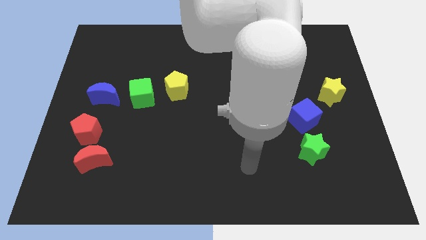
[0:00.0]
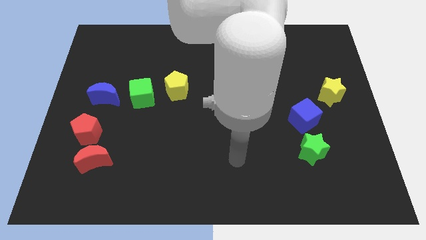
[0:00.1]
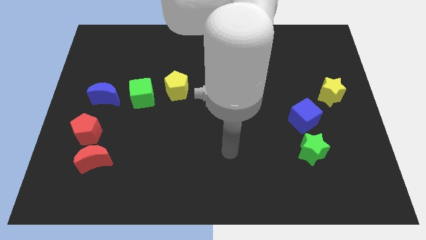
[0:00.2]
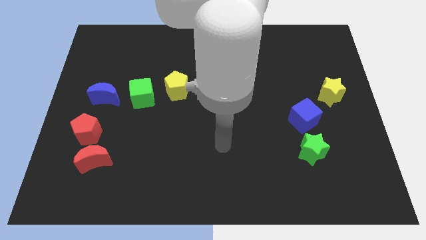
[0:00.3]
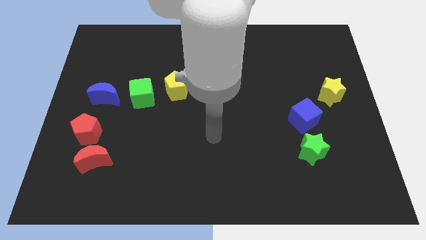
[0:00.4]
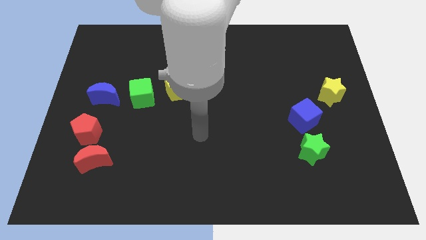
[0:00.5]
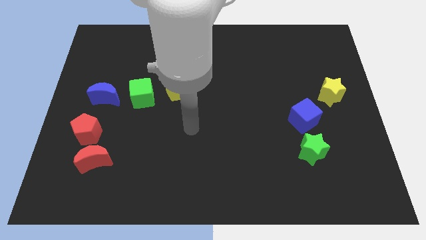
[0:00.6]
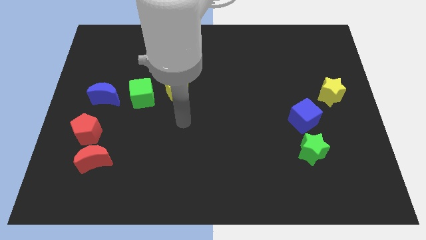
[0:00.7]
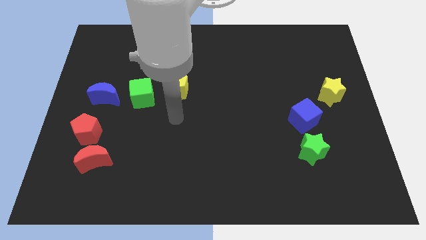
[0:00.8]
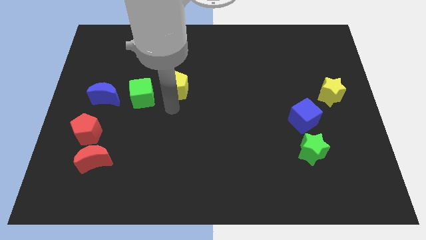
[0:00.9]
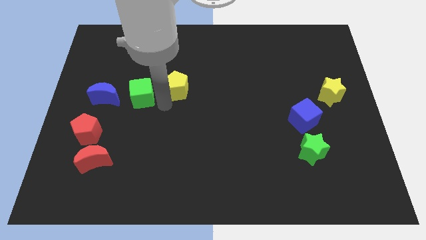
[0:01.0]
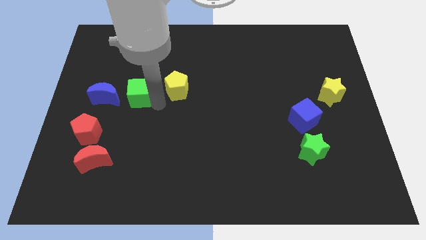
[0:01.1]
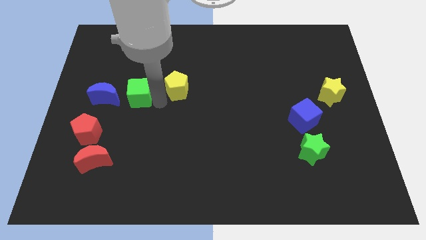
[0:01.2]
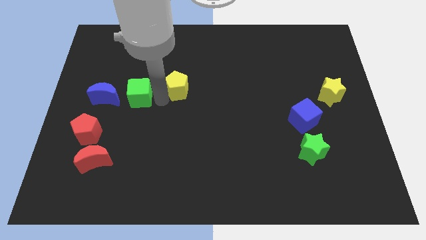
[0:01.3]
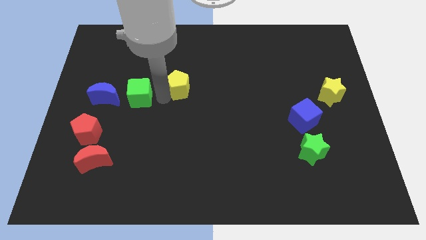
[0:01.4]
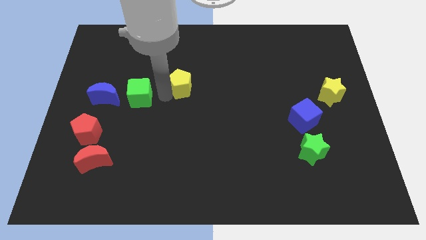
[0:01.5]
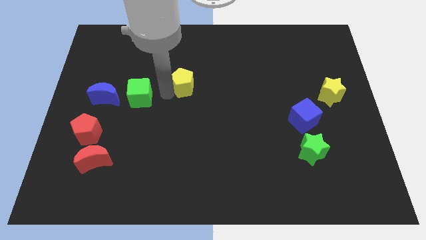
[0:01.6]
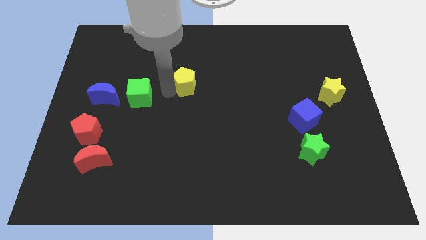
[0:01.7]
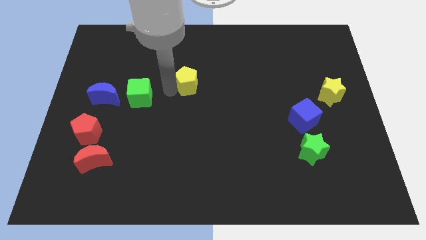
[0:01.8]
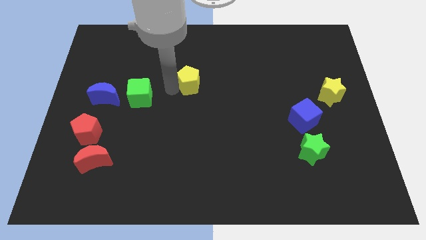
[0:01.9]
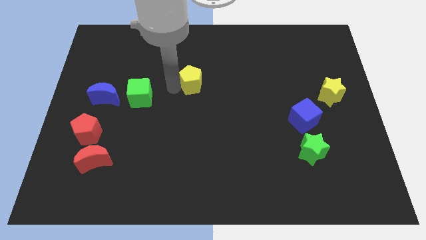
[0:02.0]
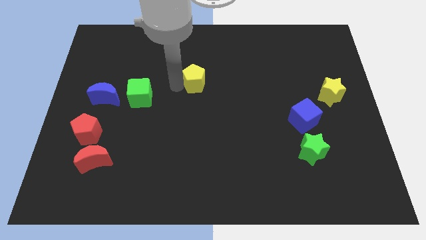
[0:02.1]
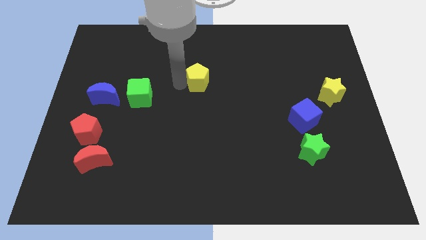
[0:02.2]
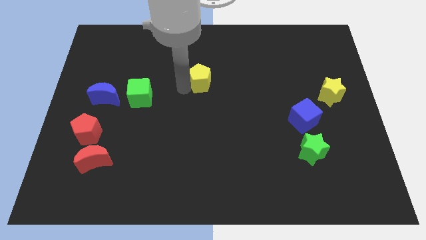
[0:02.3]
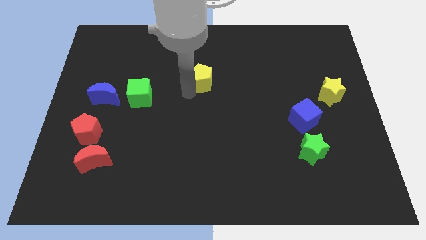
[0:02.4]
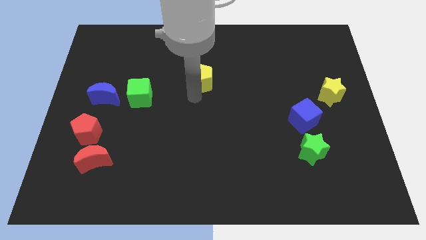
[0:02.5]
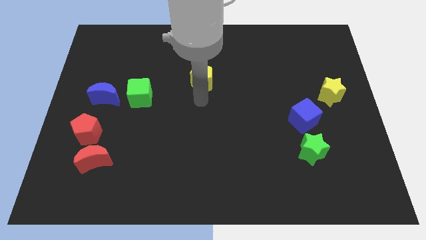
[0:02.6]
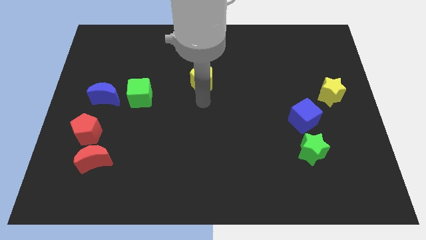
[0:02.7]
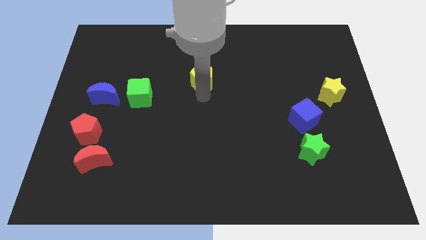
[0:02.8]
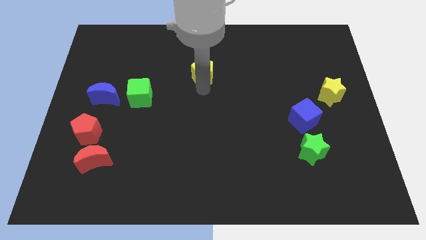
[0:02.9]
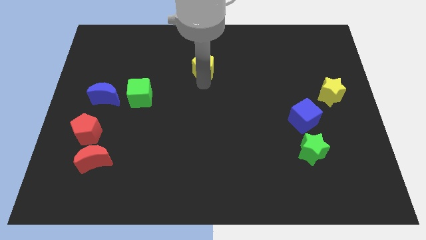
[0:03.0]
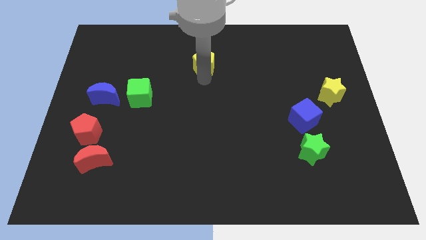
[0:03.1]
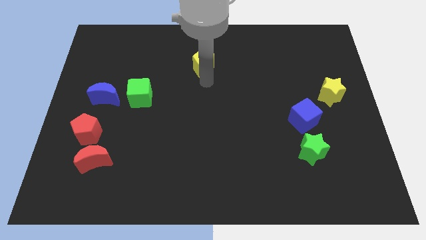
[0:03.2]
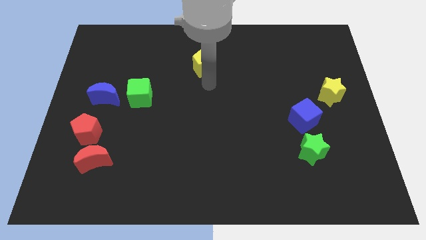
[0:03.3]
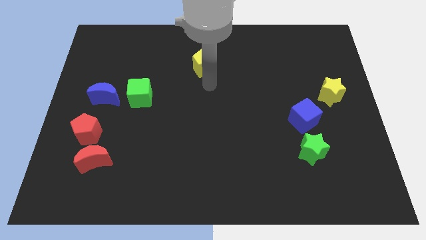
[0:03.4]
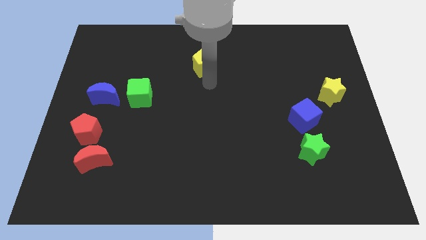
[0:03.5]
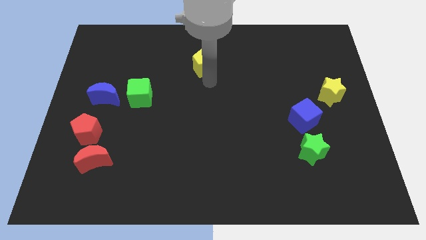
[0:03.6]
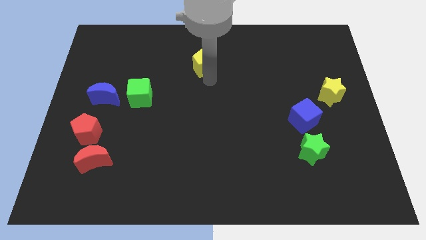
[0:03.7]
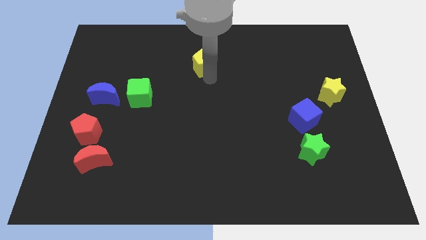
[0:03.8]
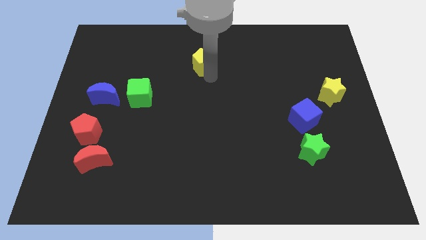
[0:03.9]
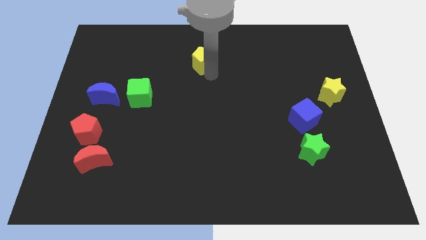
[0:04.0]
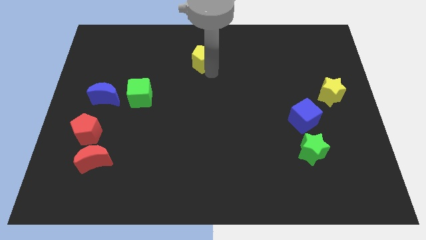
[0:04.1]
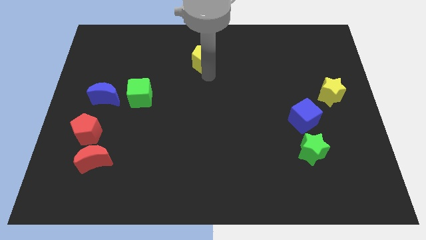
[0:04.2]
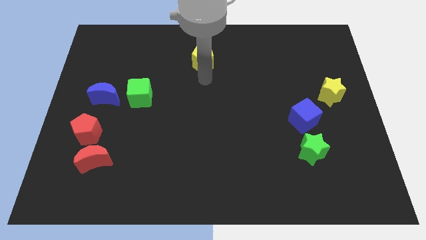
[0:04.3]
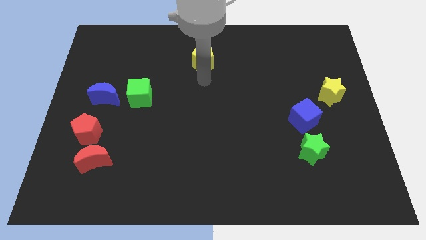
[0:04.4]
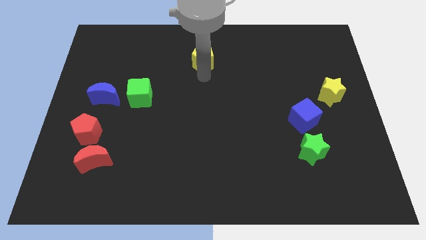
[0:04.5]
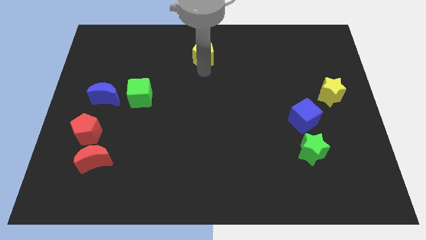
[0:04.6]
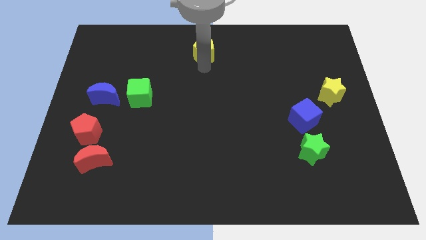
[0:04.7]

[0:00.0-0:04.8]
put the yellow pentagon to the top side

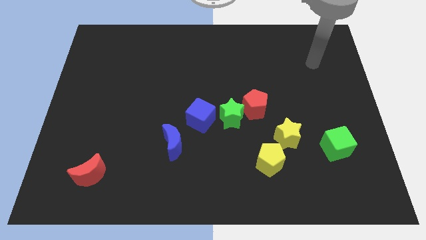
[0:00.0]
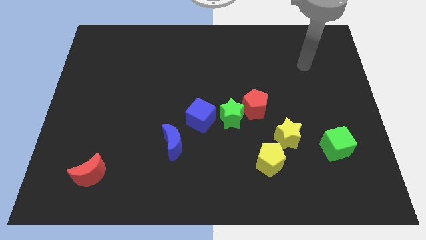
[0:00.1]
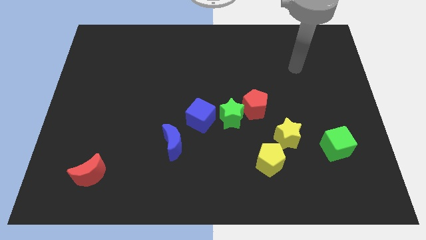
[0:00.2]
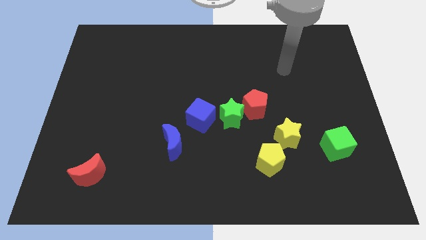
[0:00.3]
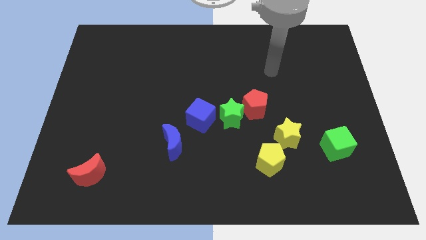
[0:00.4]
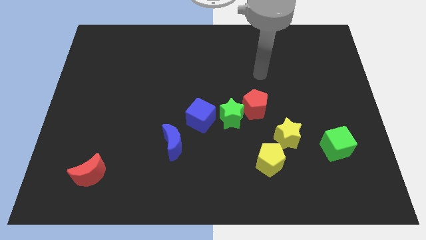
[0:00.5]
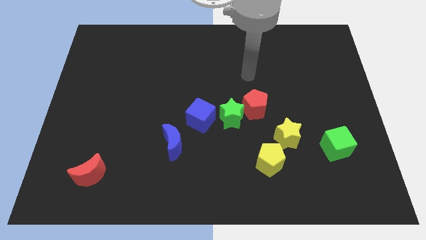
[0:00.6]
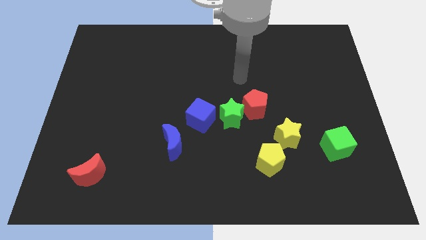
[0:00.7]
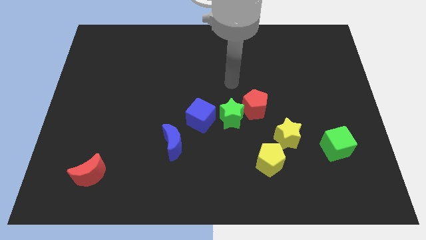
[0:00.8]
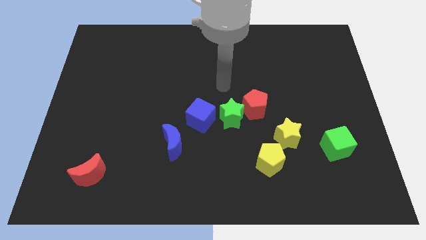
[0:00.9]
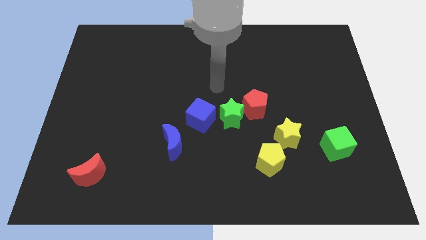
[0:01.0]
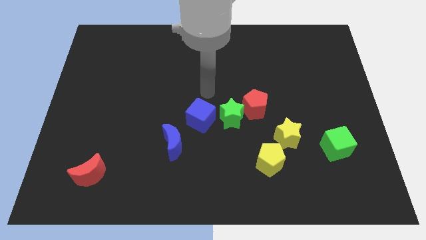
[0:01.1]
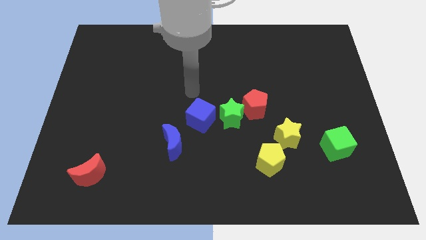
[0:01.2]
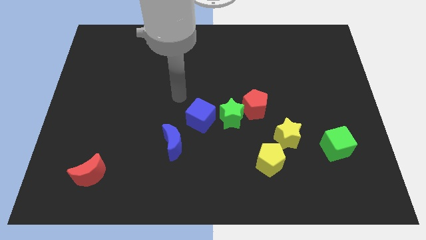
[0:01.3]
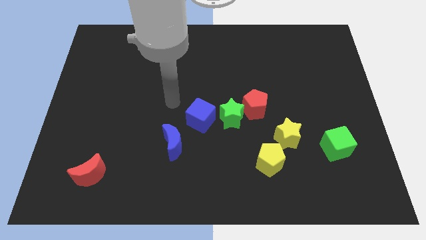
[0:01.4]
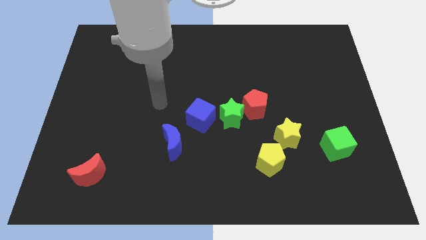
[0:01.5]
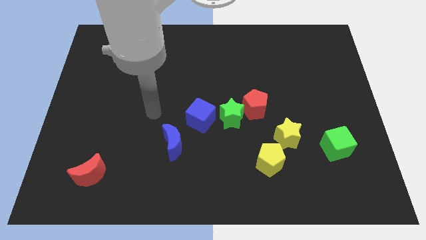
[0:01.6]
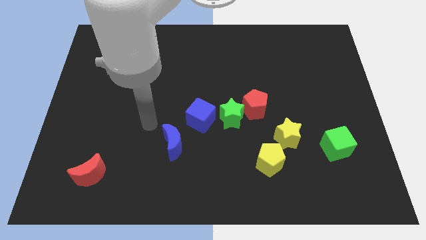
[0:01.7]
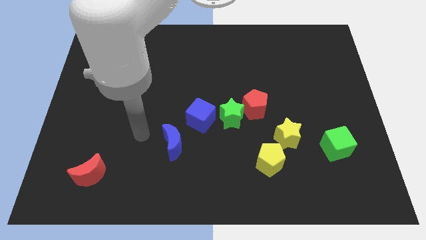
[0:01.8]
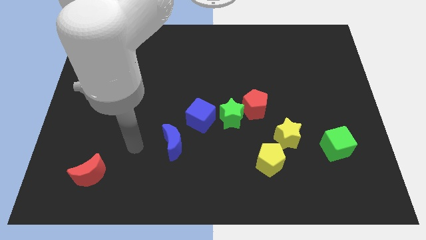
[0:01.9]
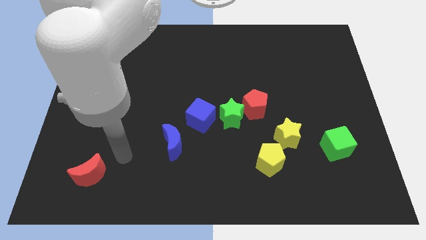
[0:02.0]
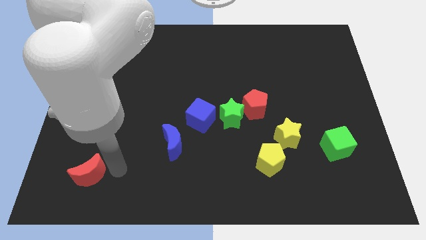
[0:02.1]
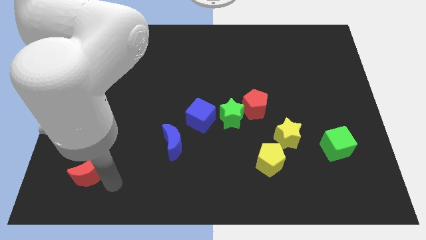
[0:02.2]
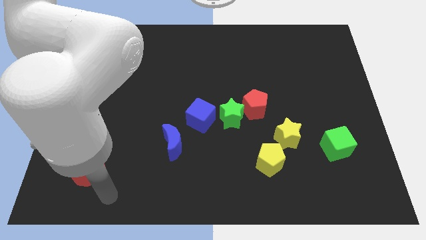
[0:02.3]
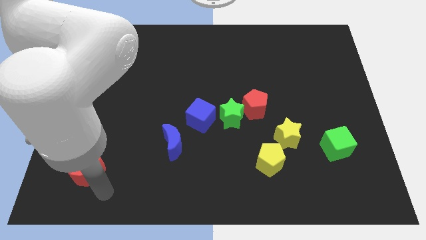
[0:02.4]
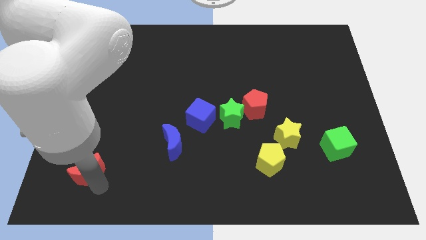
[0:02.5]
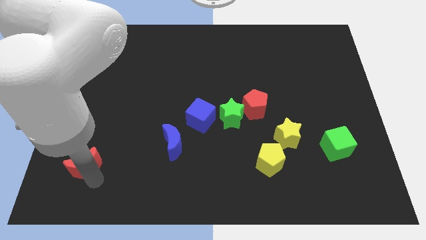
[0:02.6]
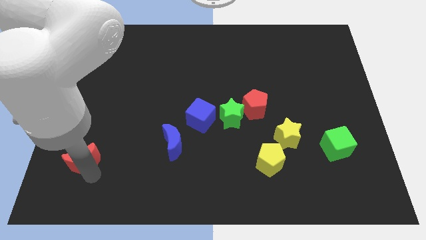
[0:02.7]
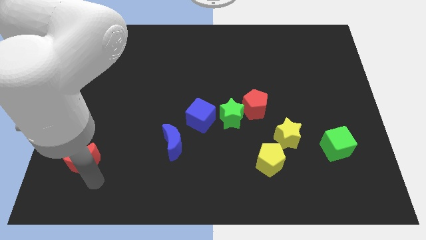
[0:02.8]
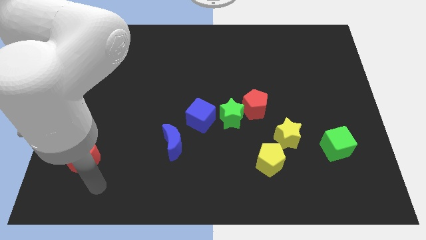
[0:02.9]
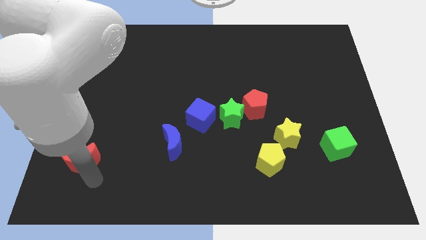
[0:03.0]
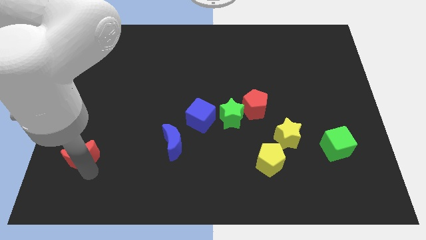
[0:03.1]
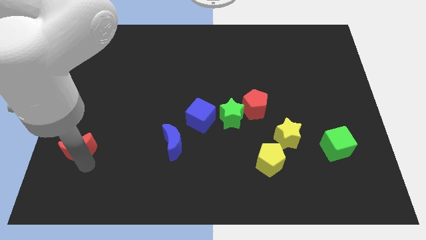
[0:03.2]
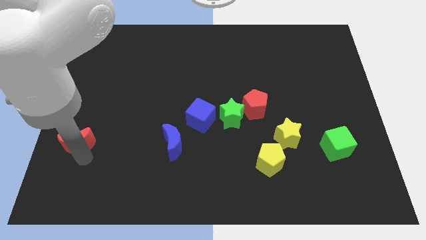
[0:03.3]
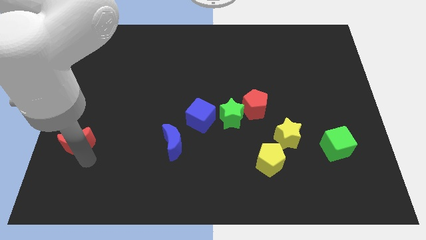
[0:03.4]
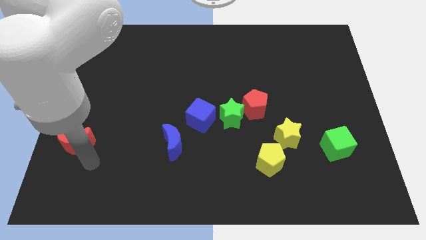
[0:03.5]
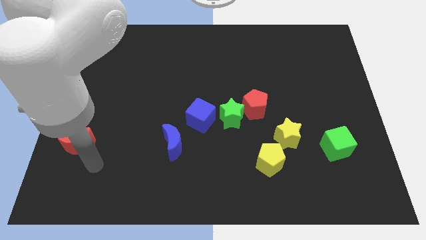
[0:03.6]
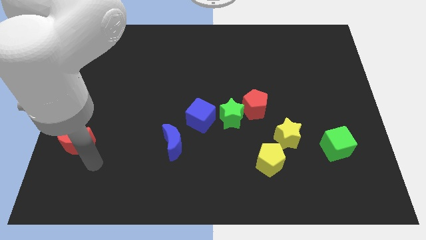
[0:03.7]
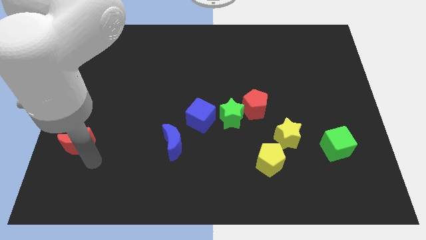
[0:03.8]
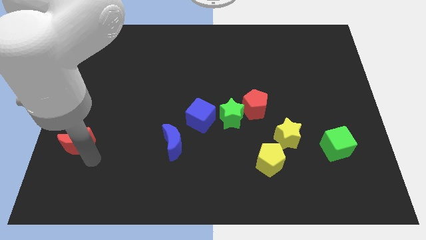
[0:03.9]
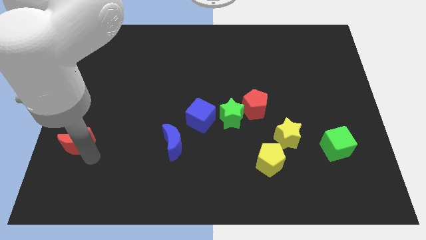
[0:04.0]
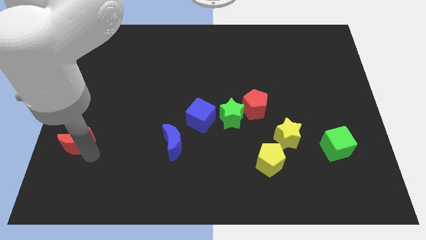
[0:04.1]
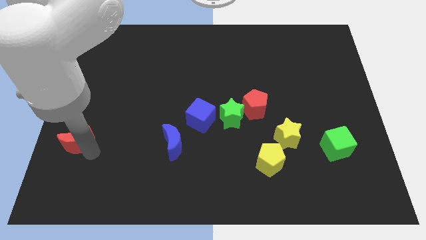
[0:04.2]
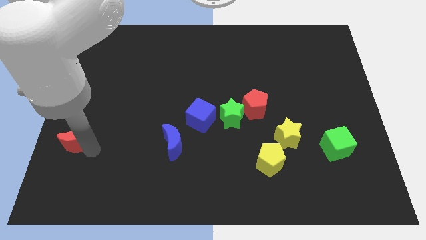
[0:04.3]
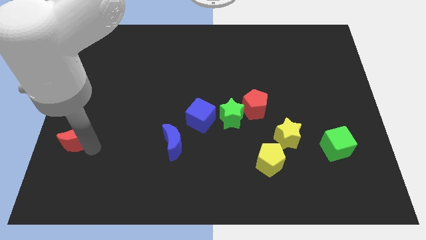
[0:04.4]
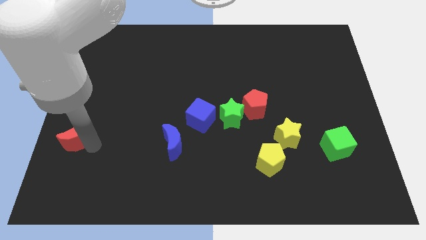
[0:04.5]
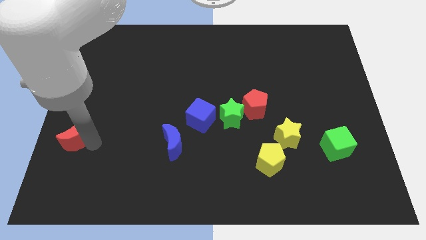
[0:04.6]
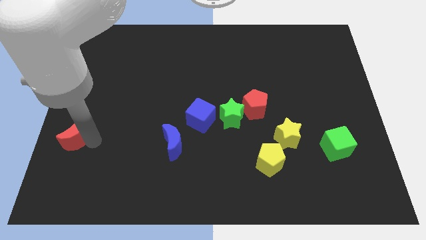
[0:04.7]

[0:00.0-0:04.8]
push the red moon to the left side
